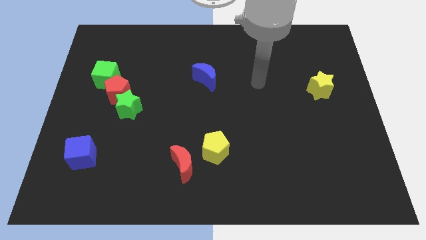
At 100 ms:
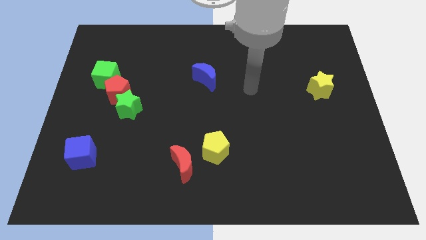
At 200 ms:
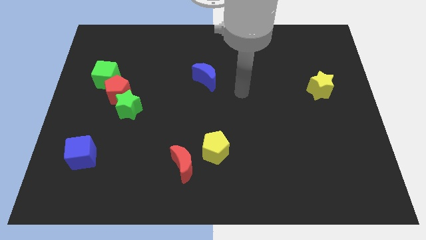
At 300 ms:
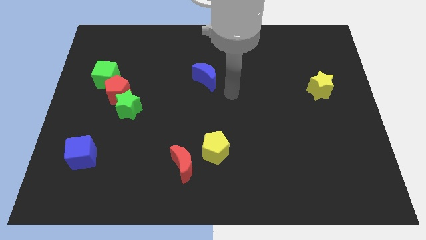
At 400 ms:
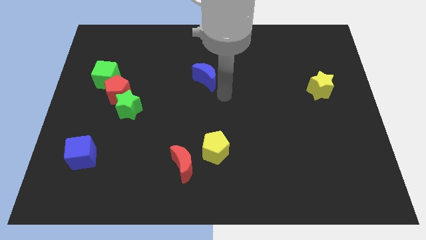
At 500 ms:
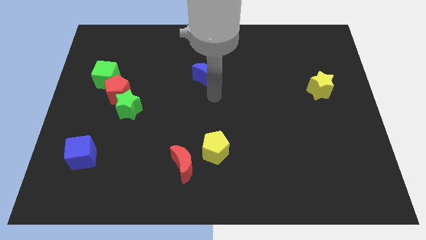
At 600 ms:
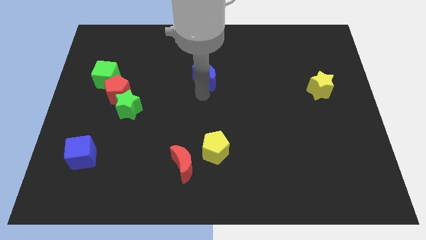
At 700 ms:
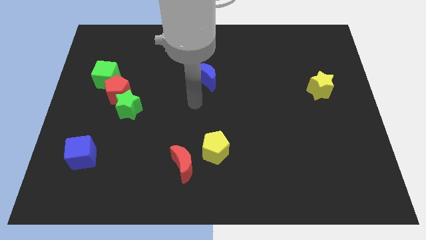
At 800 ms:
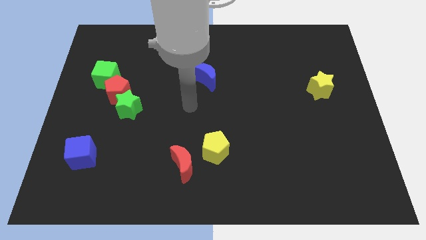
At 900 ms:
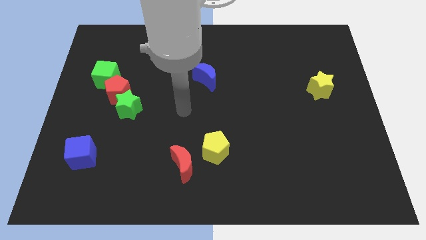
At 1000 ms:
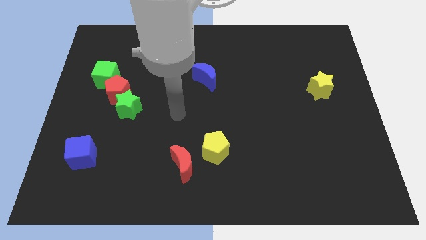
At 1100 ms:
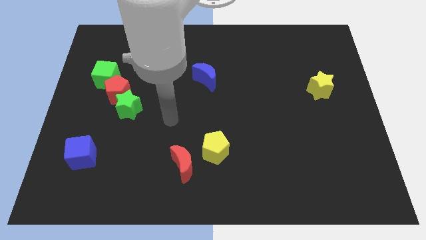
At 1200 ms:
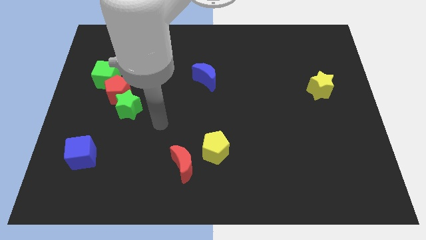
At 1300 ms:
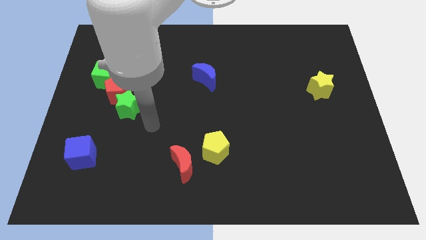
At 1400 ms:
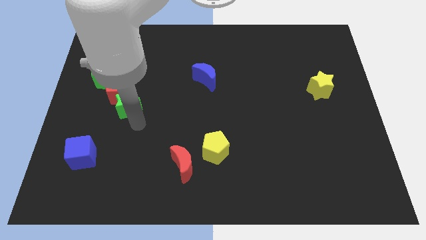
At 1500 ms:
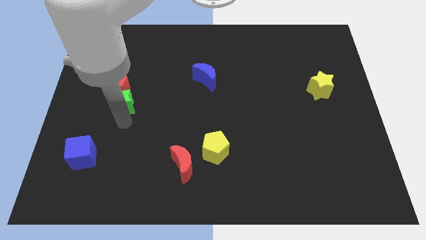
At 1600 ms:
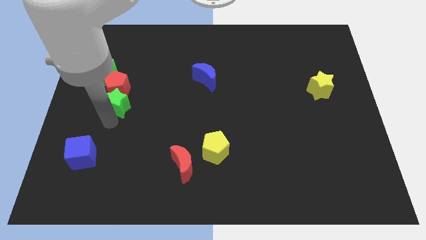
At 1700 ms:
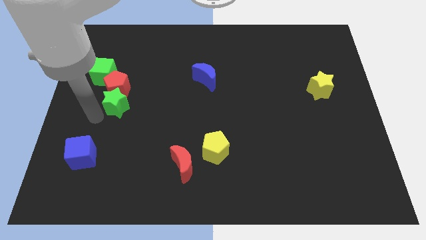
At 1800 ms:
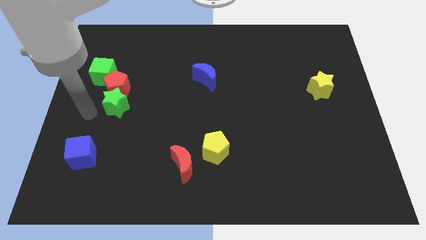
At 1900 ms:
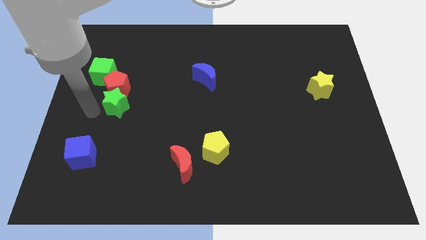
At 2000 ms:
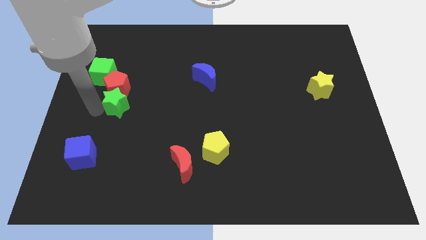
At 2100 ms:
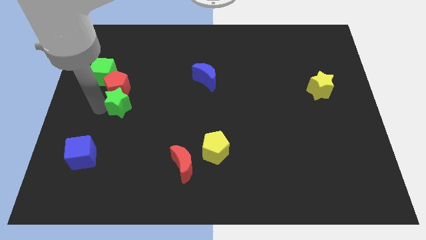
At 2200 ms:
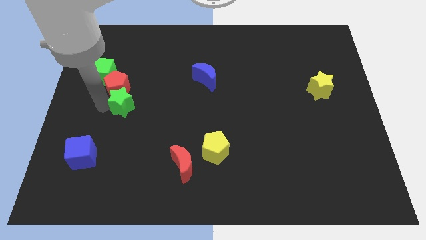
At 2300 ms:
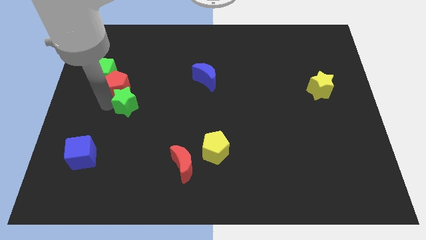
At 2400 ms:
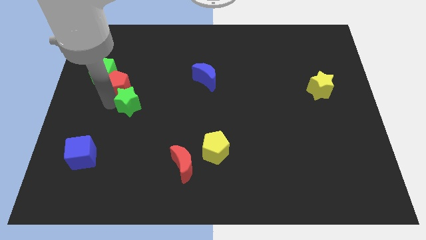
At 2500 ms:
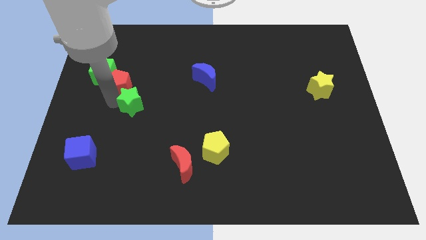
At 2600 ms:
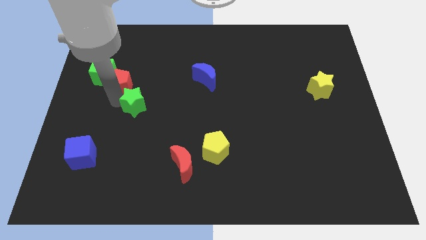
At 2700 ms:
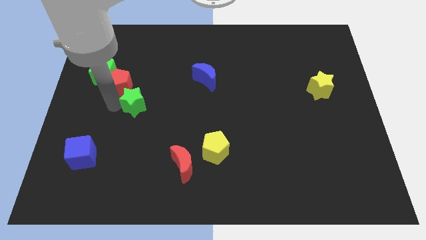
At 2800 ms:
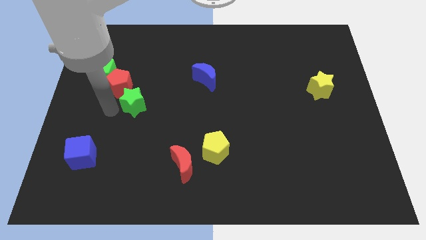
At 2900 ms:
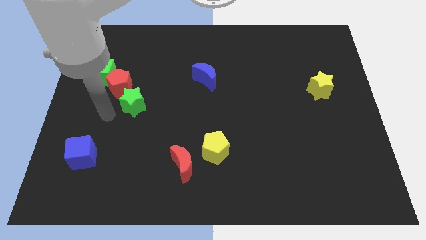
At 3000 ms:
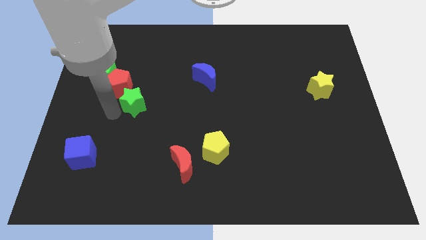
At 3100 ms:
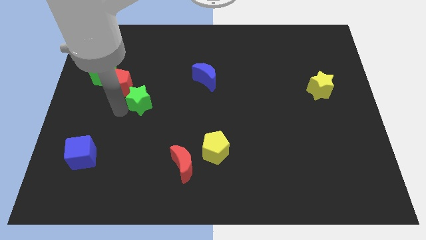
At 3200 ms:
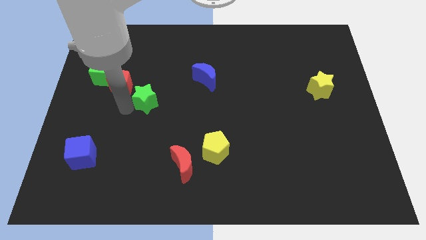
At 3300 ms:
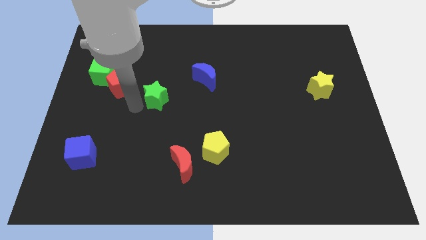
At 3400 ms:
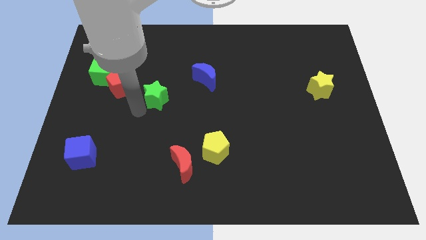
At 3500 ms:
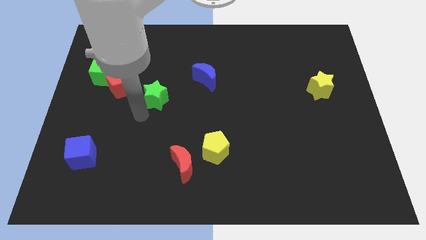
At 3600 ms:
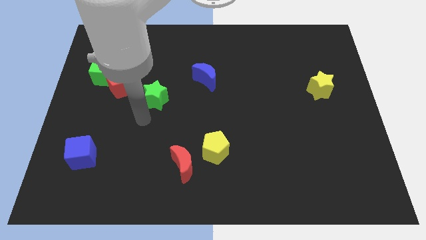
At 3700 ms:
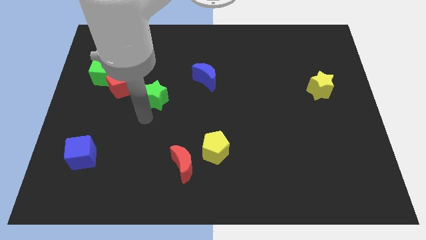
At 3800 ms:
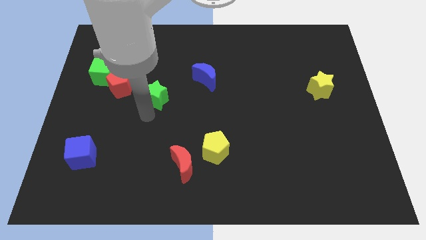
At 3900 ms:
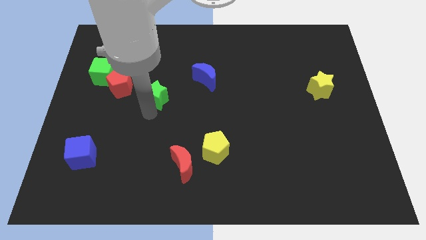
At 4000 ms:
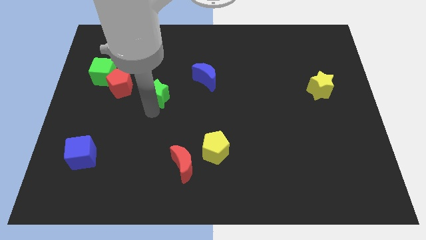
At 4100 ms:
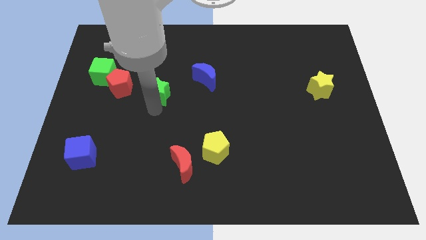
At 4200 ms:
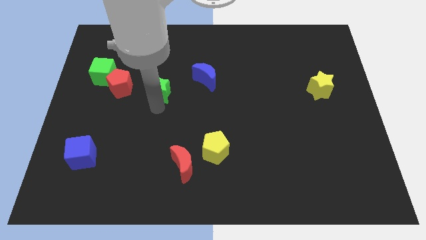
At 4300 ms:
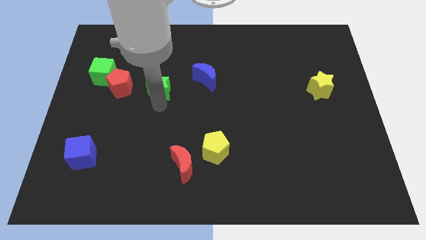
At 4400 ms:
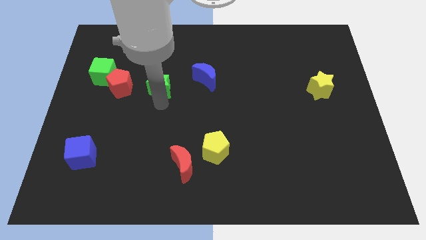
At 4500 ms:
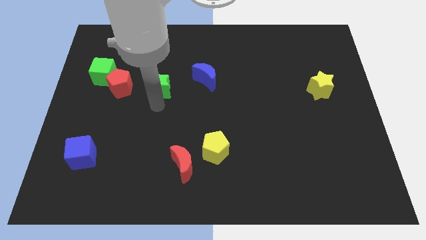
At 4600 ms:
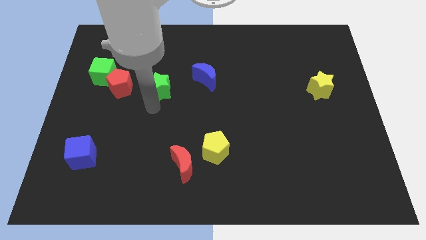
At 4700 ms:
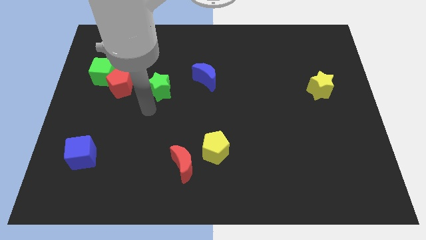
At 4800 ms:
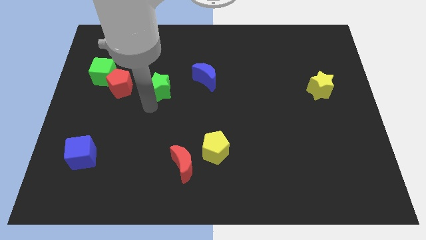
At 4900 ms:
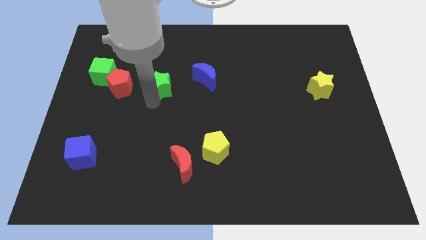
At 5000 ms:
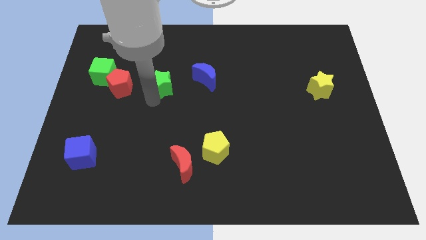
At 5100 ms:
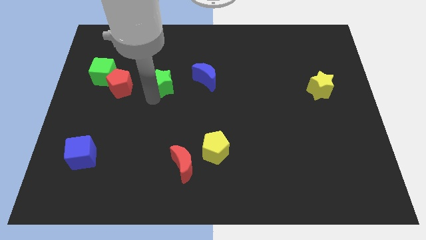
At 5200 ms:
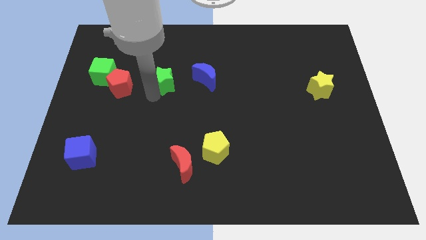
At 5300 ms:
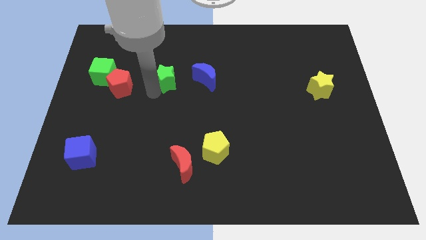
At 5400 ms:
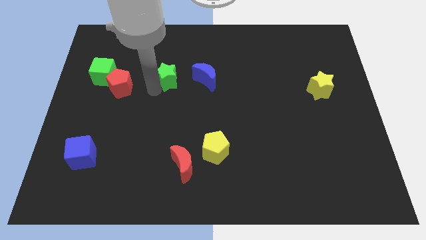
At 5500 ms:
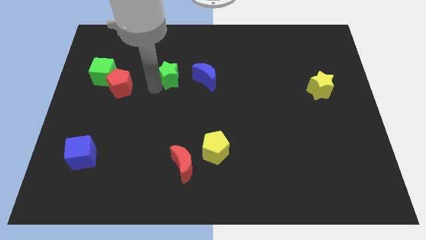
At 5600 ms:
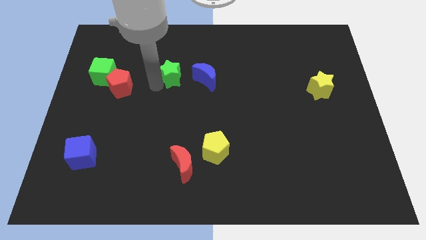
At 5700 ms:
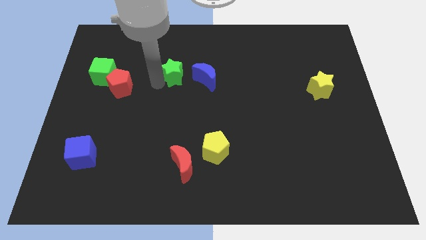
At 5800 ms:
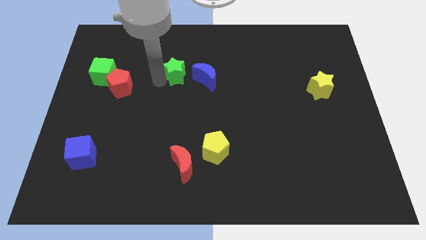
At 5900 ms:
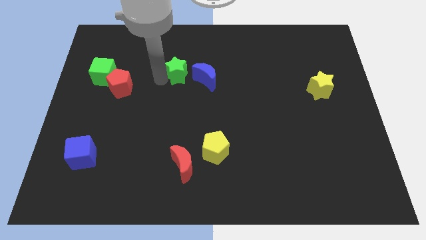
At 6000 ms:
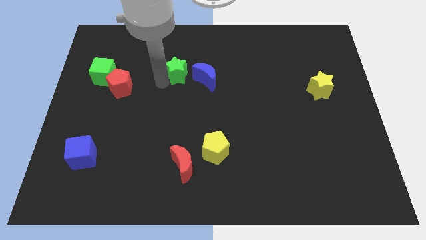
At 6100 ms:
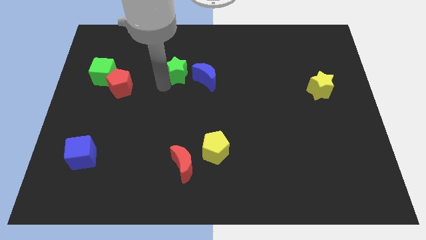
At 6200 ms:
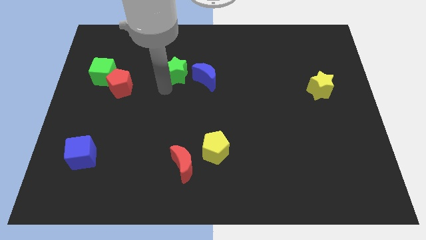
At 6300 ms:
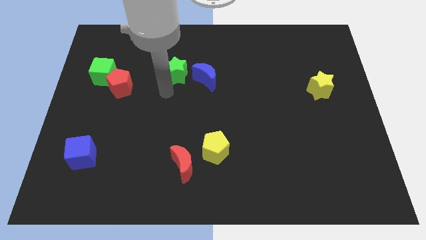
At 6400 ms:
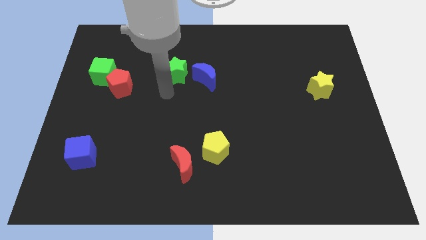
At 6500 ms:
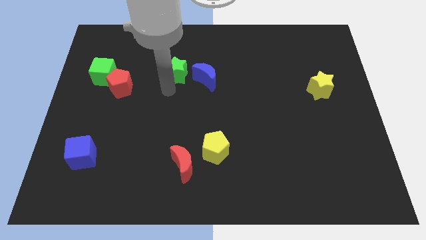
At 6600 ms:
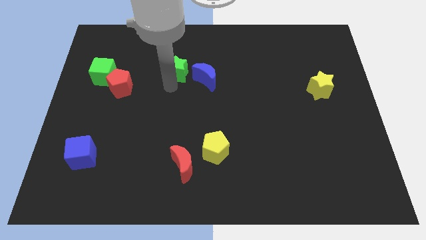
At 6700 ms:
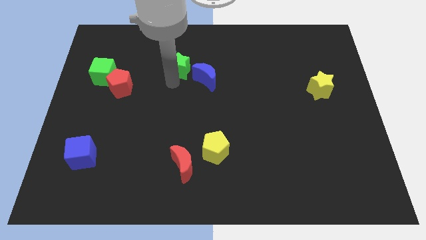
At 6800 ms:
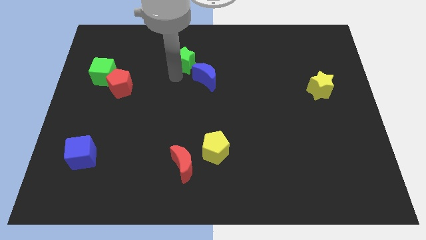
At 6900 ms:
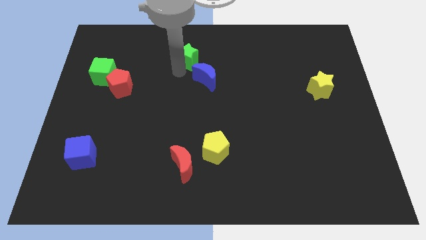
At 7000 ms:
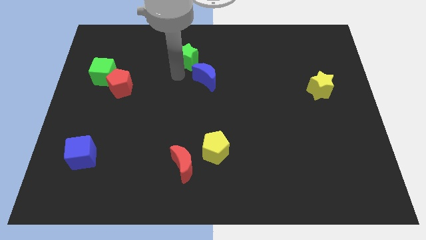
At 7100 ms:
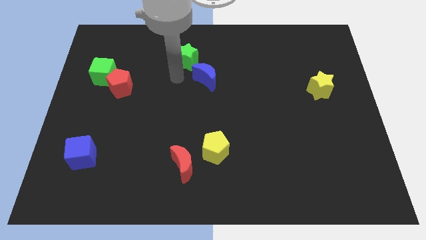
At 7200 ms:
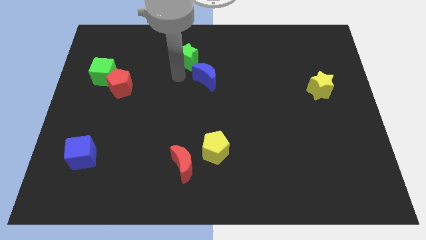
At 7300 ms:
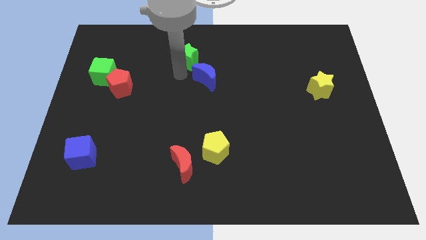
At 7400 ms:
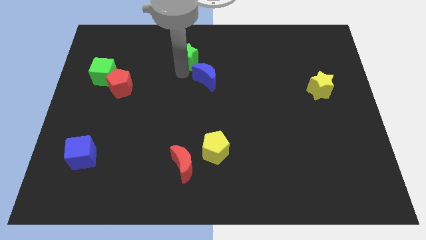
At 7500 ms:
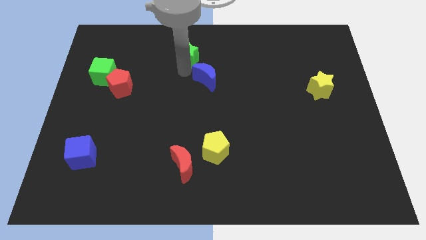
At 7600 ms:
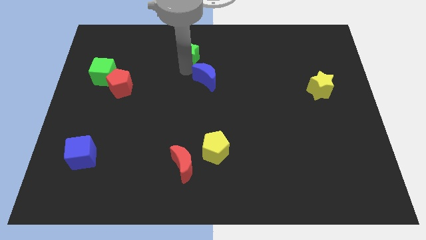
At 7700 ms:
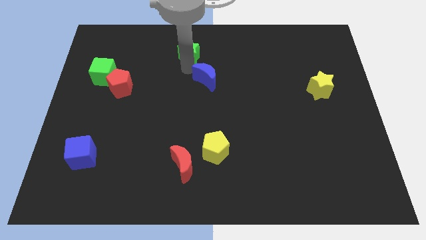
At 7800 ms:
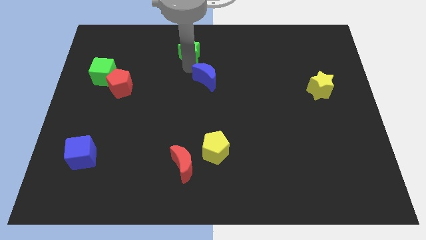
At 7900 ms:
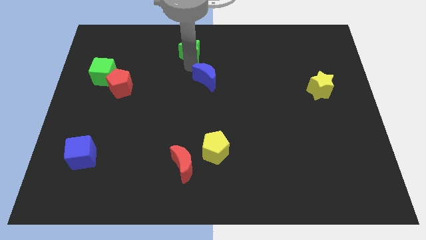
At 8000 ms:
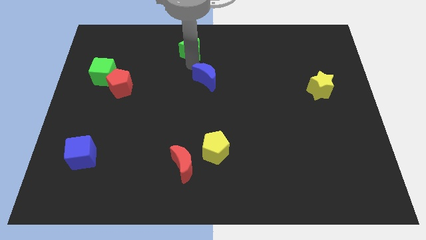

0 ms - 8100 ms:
put the green star to the towards your base
